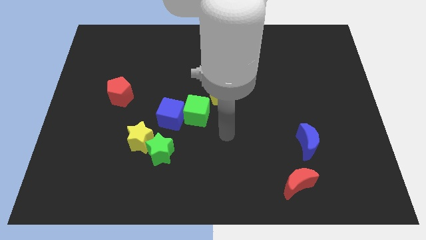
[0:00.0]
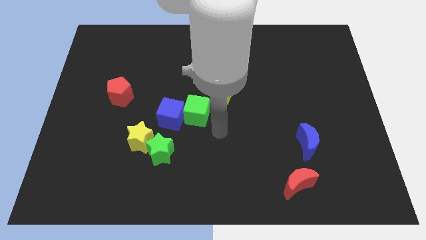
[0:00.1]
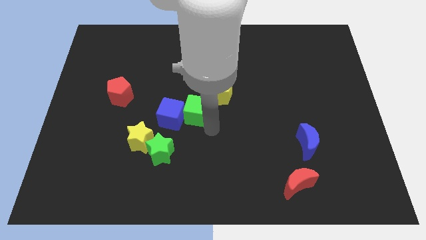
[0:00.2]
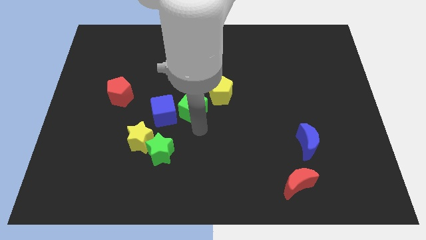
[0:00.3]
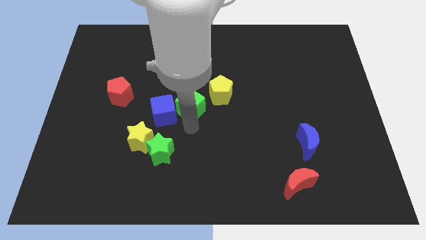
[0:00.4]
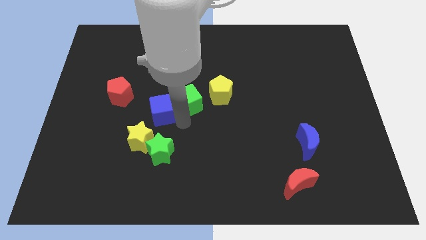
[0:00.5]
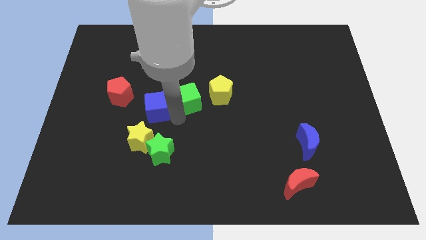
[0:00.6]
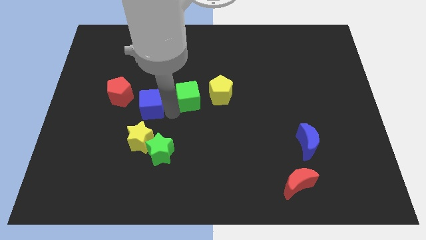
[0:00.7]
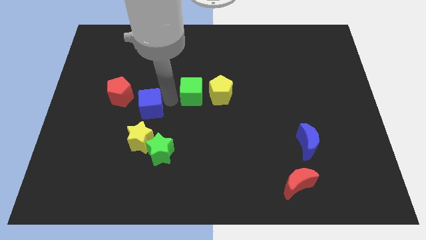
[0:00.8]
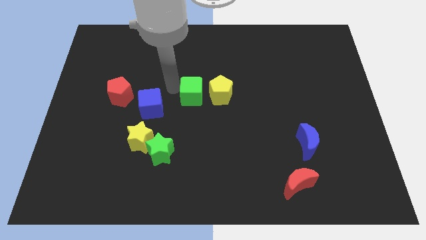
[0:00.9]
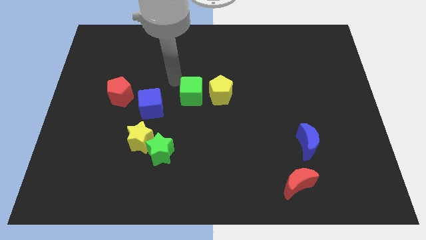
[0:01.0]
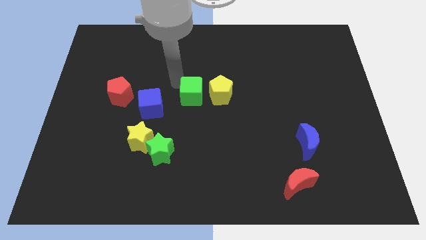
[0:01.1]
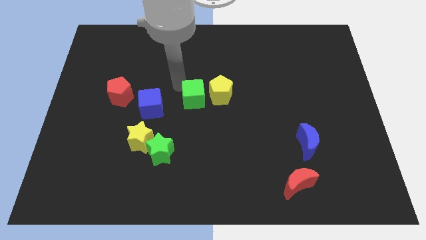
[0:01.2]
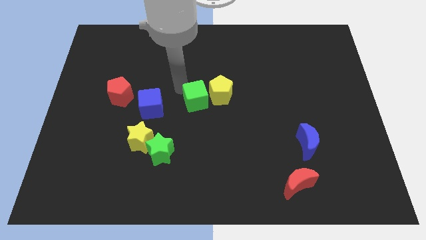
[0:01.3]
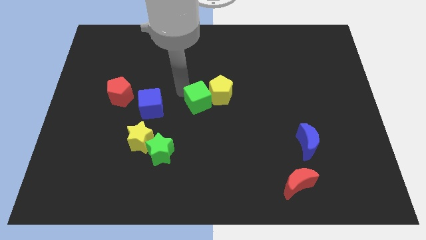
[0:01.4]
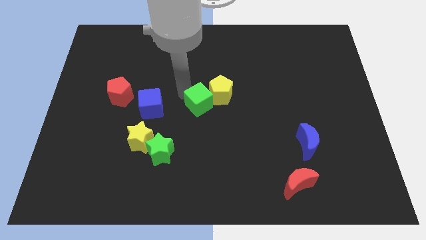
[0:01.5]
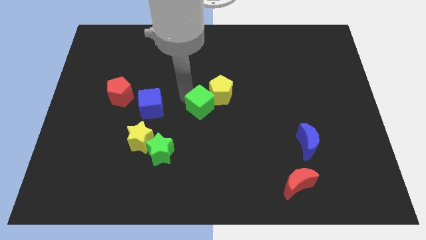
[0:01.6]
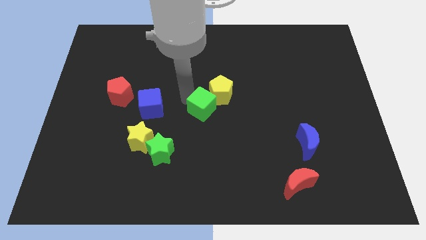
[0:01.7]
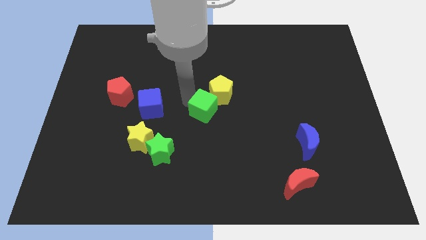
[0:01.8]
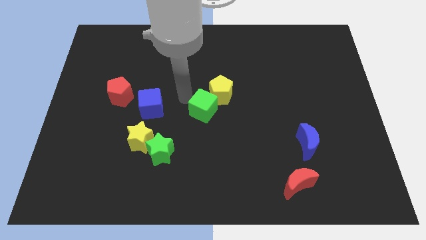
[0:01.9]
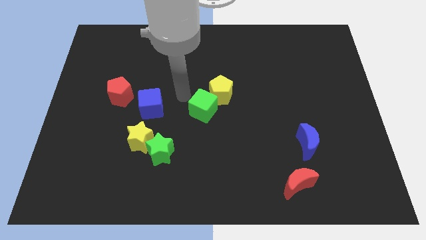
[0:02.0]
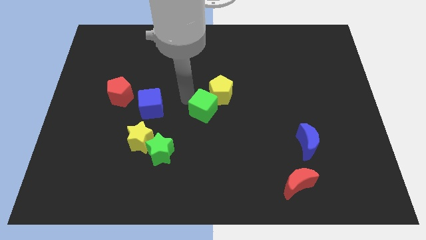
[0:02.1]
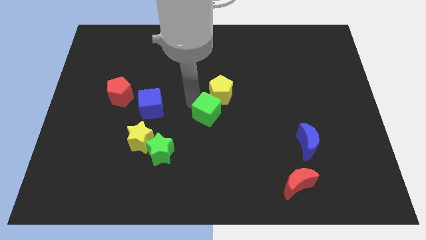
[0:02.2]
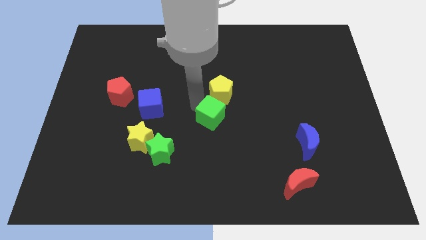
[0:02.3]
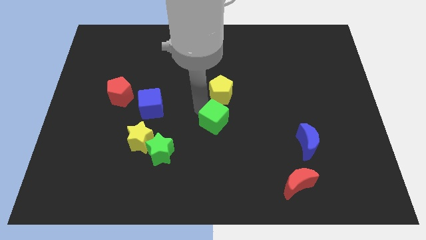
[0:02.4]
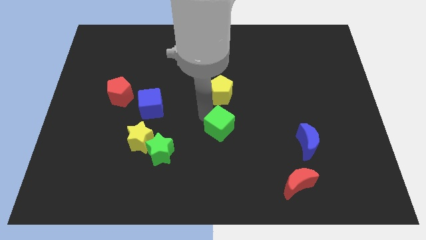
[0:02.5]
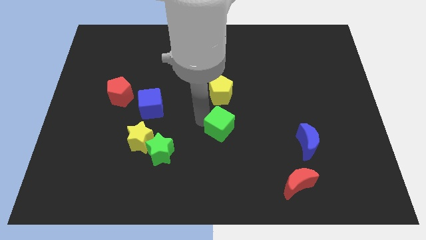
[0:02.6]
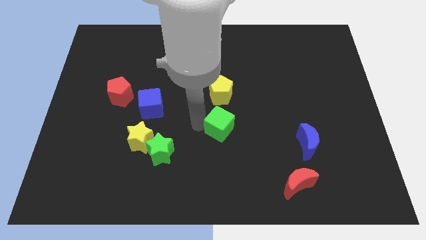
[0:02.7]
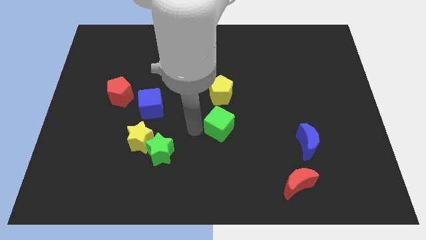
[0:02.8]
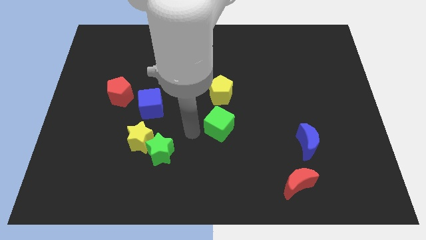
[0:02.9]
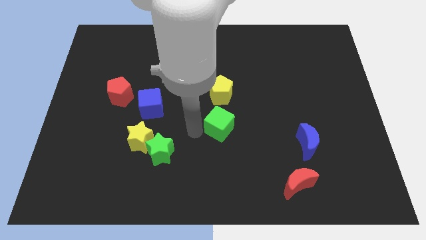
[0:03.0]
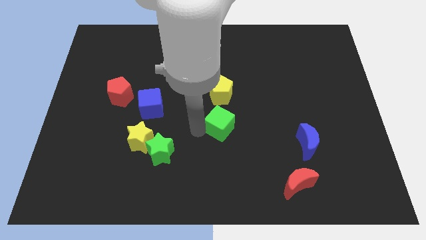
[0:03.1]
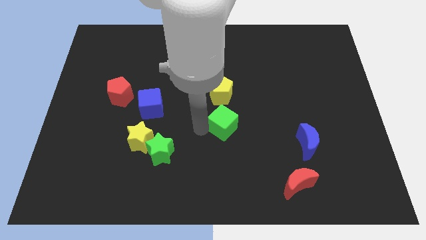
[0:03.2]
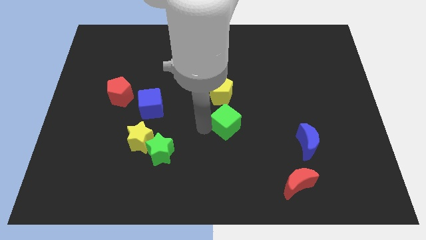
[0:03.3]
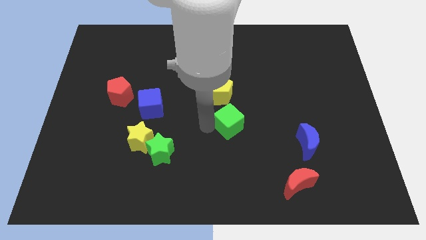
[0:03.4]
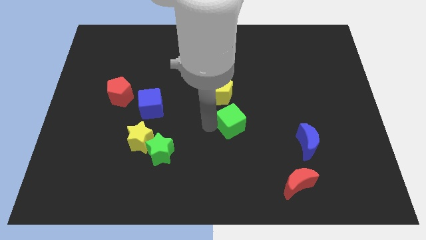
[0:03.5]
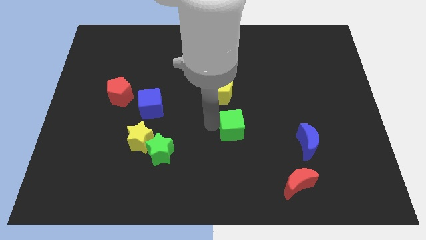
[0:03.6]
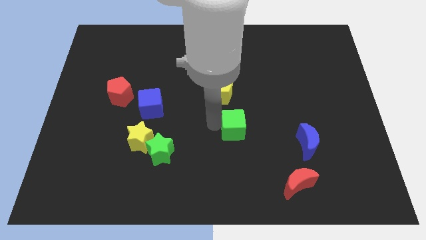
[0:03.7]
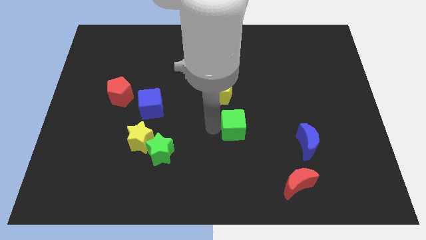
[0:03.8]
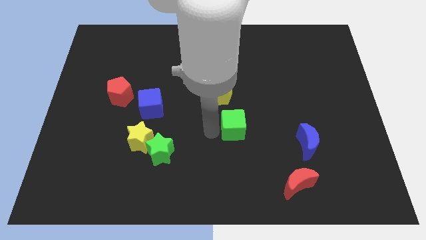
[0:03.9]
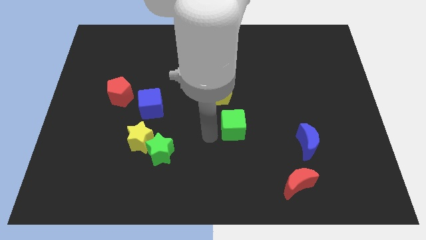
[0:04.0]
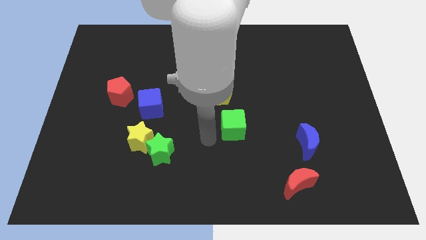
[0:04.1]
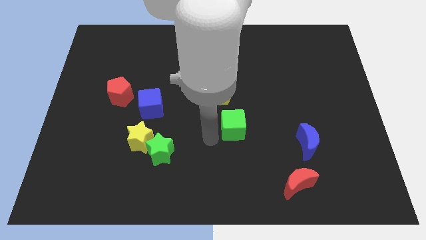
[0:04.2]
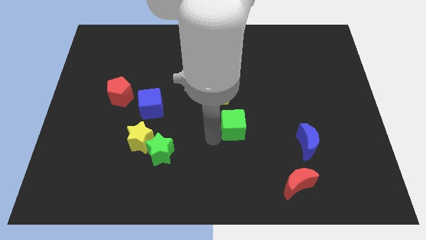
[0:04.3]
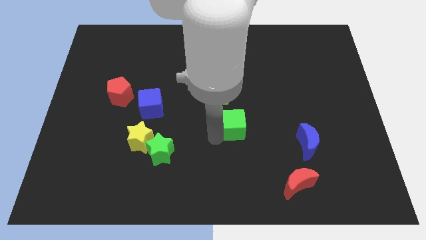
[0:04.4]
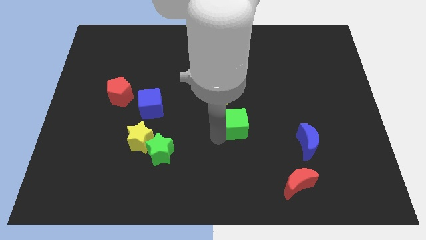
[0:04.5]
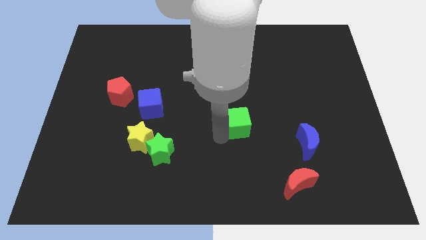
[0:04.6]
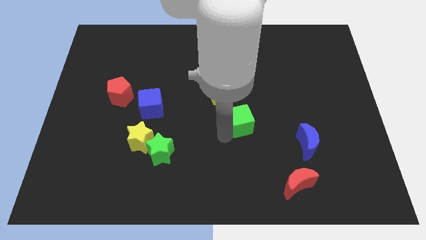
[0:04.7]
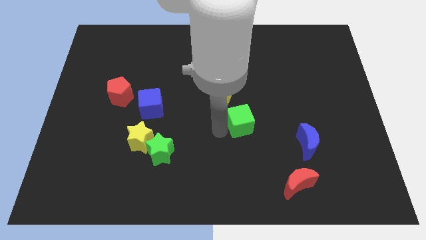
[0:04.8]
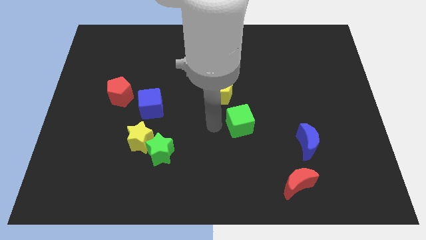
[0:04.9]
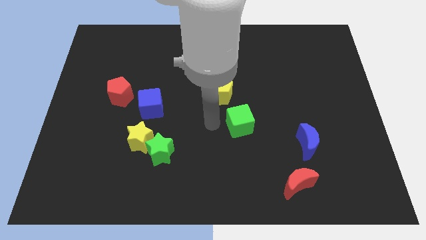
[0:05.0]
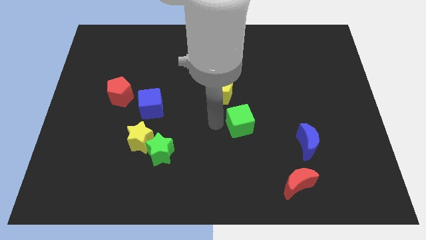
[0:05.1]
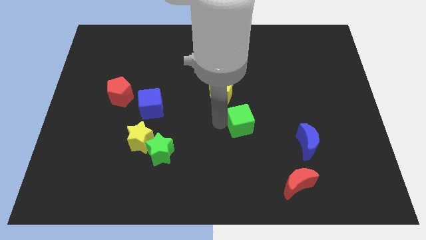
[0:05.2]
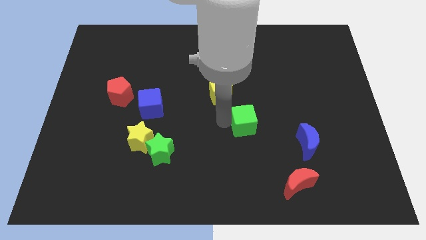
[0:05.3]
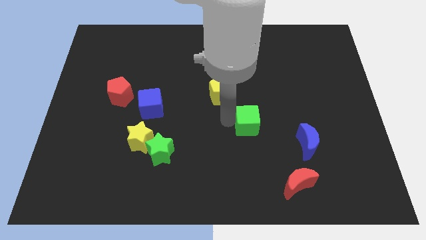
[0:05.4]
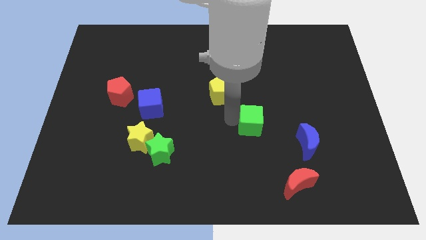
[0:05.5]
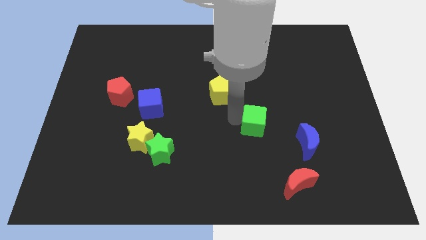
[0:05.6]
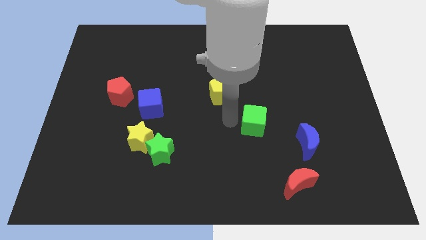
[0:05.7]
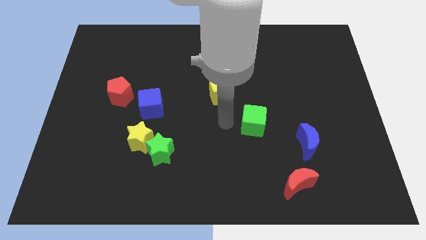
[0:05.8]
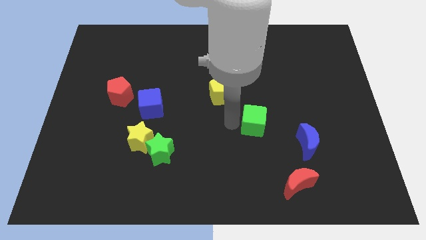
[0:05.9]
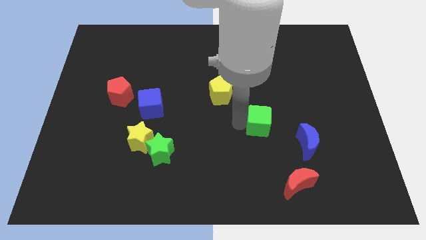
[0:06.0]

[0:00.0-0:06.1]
put the green cube to the top left of the blue moon

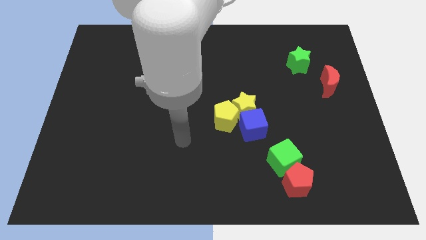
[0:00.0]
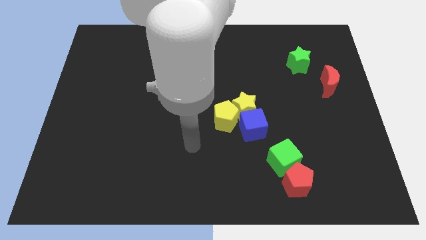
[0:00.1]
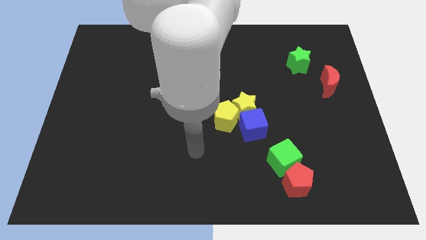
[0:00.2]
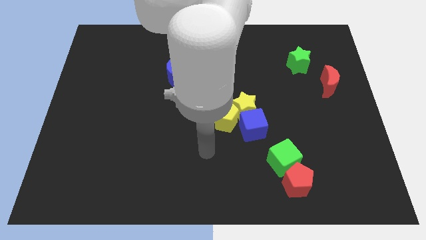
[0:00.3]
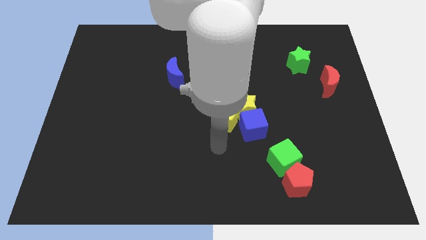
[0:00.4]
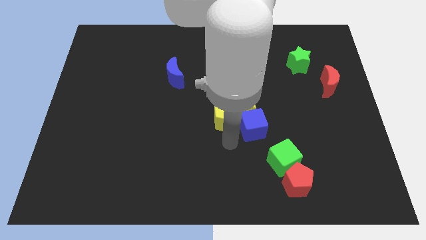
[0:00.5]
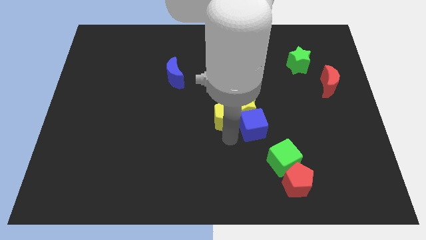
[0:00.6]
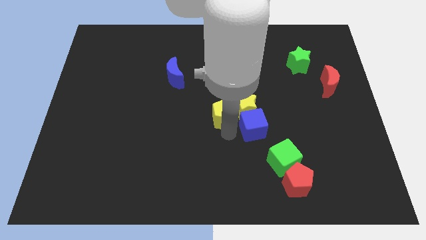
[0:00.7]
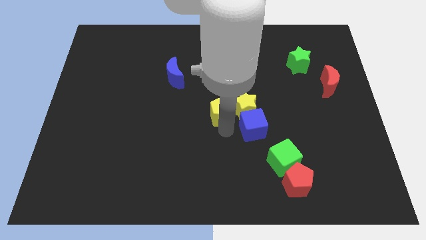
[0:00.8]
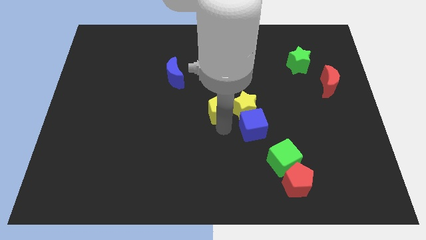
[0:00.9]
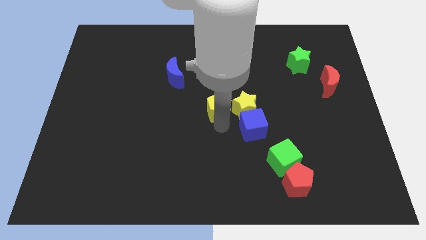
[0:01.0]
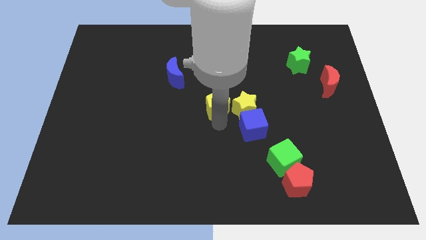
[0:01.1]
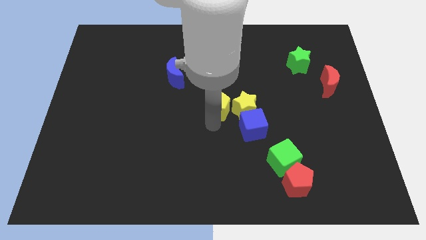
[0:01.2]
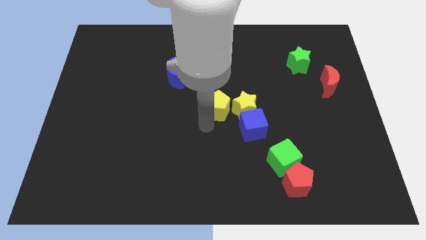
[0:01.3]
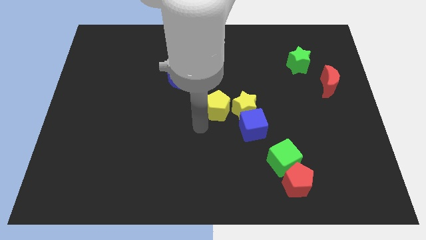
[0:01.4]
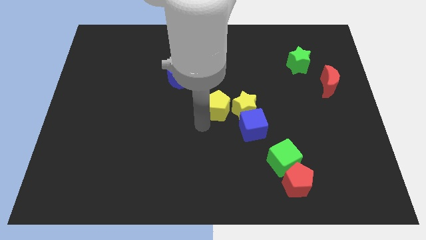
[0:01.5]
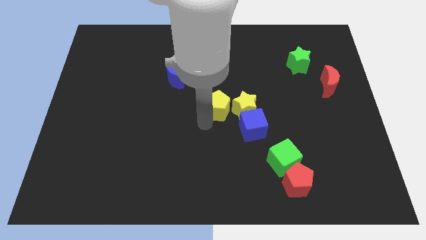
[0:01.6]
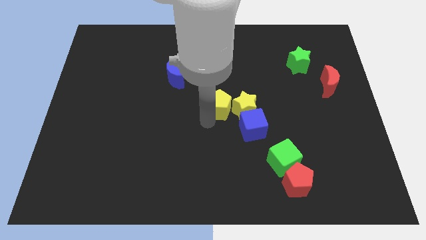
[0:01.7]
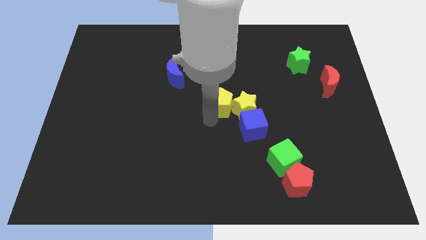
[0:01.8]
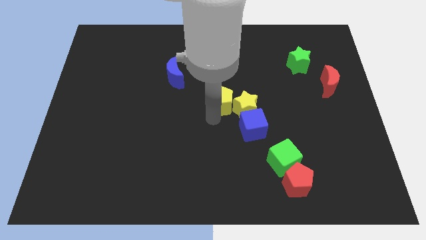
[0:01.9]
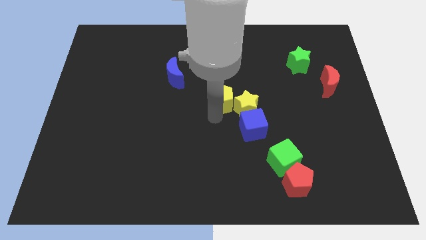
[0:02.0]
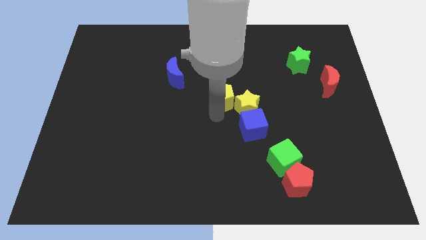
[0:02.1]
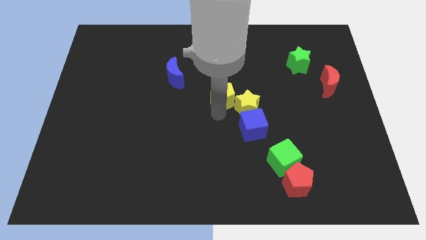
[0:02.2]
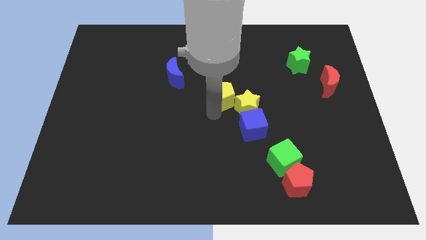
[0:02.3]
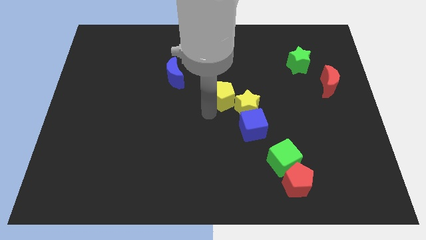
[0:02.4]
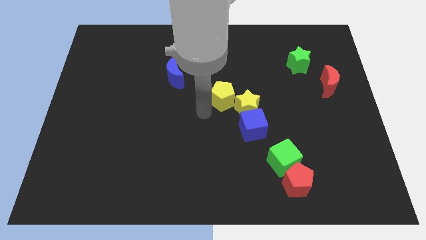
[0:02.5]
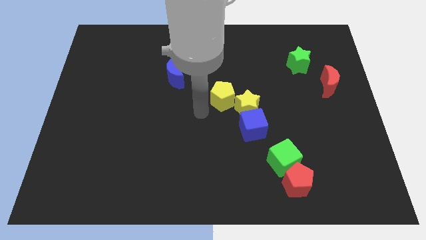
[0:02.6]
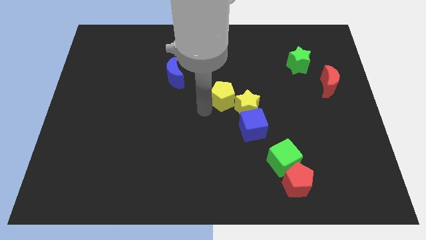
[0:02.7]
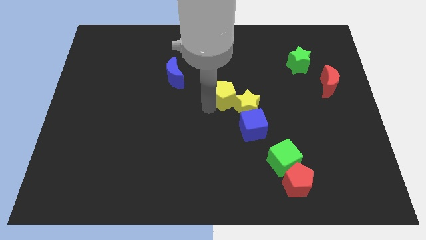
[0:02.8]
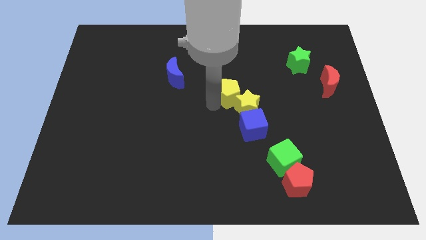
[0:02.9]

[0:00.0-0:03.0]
move the yellow pentagon to the top of the yellow star
